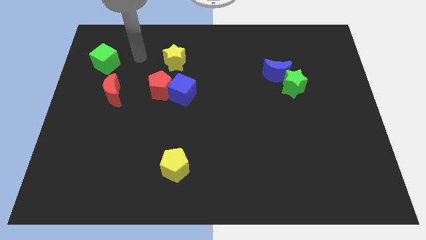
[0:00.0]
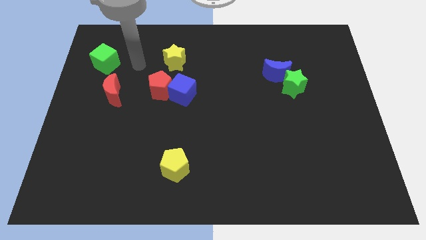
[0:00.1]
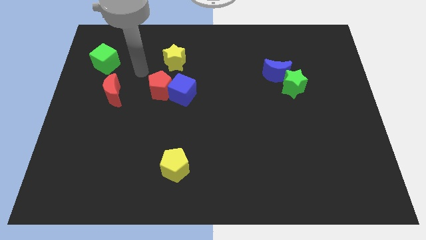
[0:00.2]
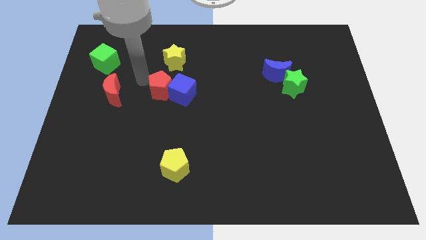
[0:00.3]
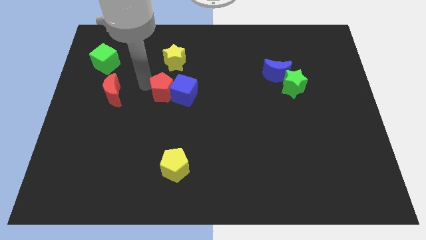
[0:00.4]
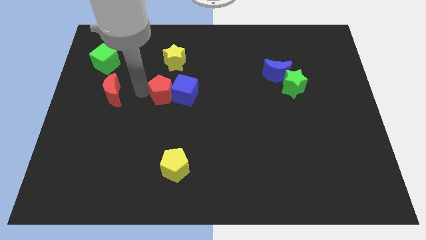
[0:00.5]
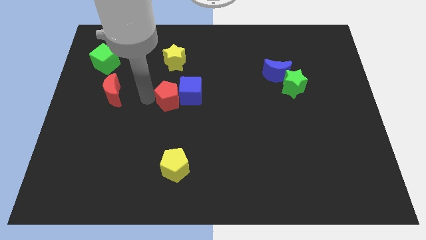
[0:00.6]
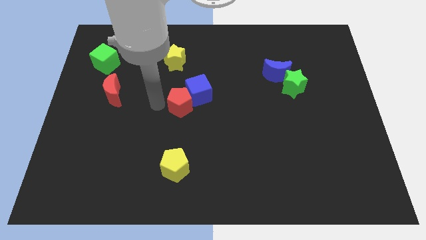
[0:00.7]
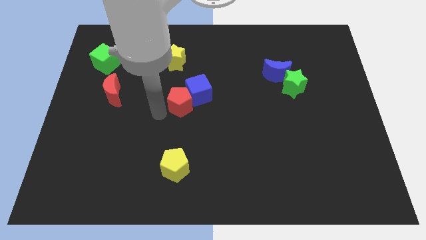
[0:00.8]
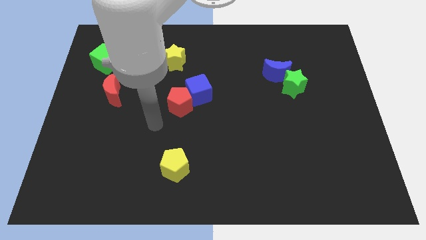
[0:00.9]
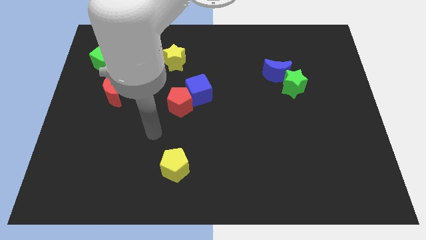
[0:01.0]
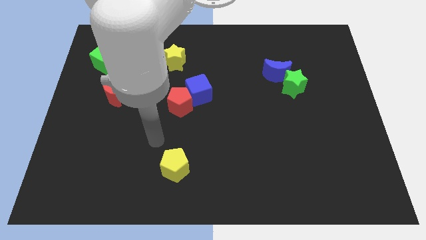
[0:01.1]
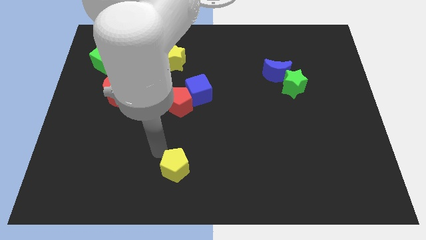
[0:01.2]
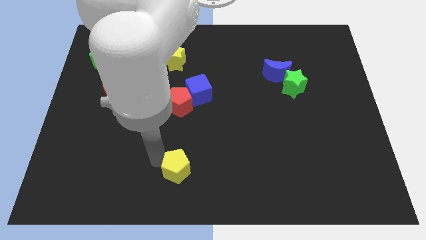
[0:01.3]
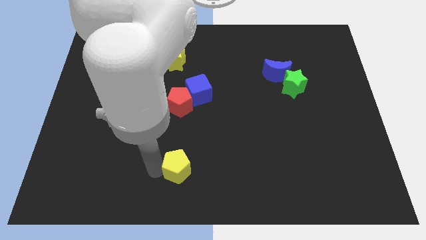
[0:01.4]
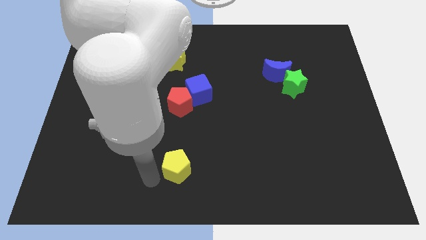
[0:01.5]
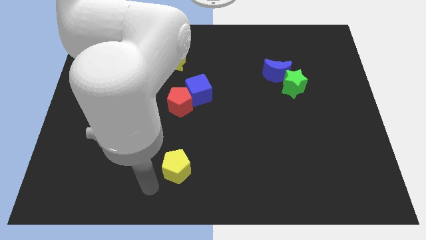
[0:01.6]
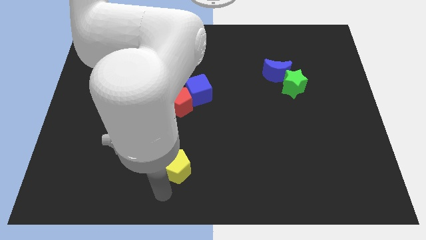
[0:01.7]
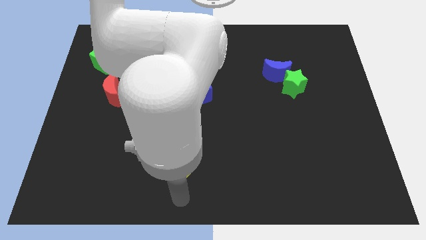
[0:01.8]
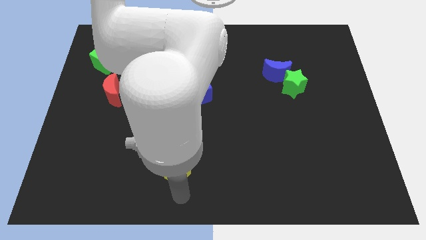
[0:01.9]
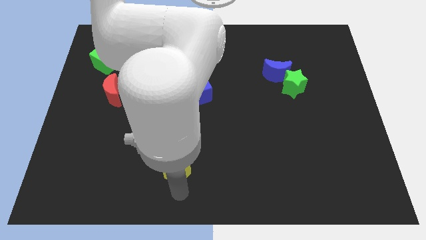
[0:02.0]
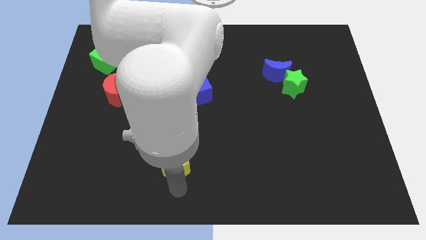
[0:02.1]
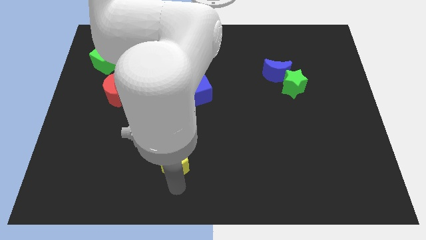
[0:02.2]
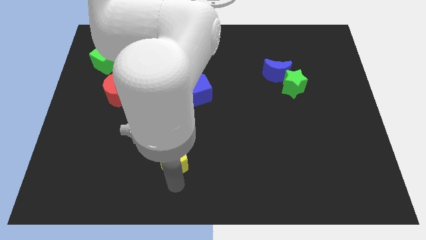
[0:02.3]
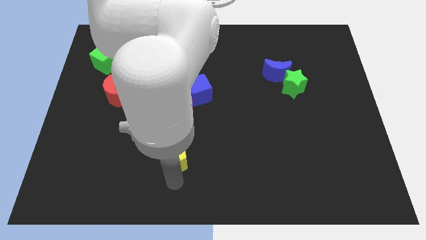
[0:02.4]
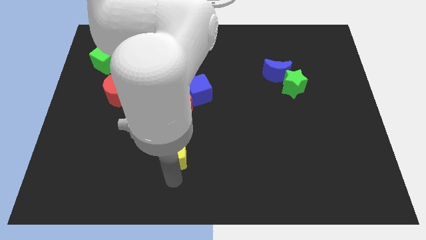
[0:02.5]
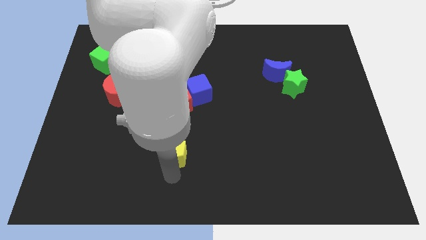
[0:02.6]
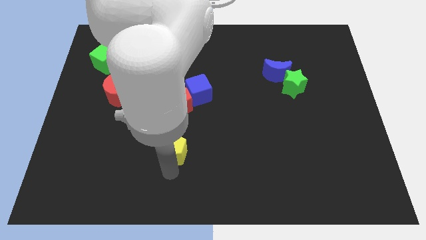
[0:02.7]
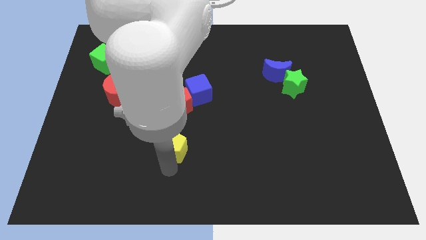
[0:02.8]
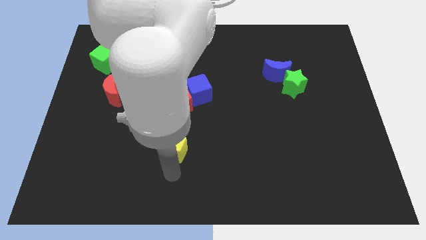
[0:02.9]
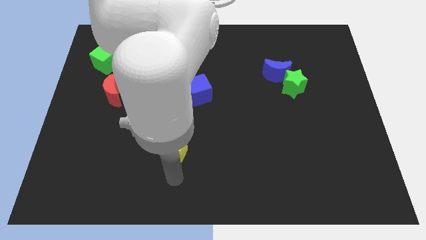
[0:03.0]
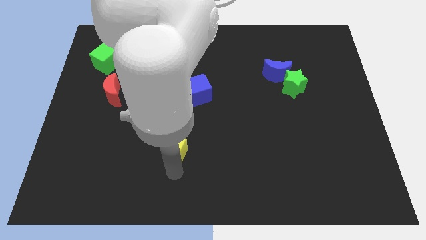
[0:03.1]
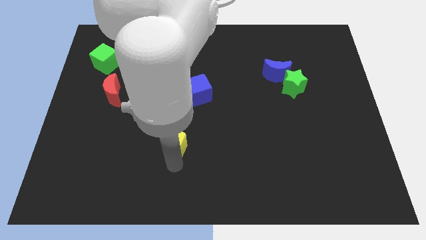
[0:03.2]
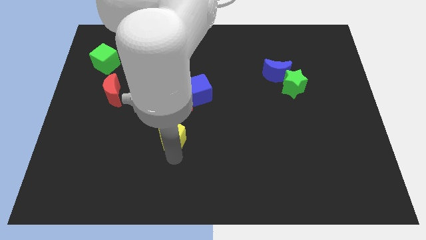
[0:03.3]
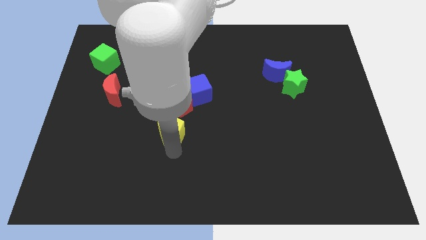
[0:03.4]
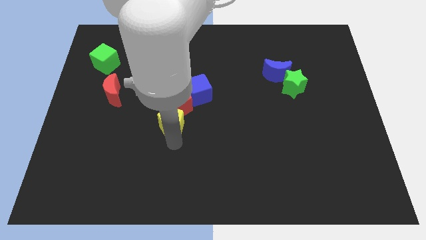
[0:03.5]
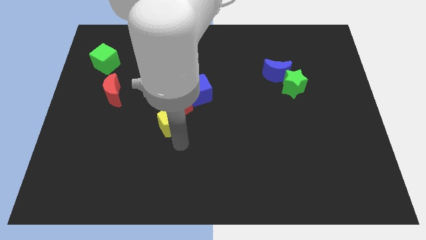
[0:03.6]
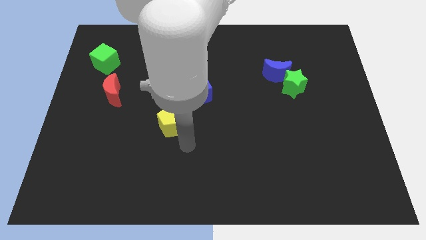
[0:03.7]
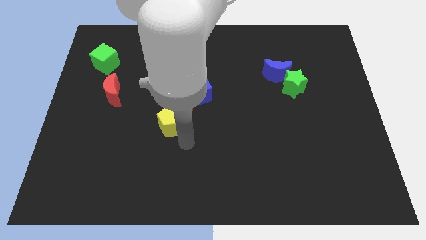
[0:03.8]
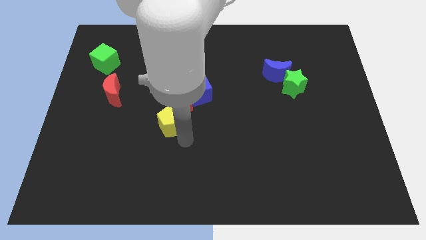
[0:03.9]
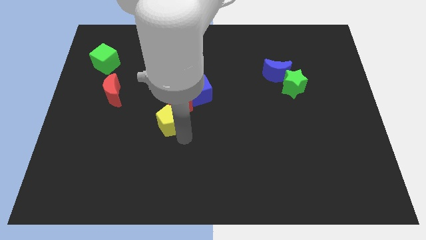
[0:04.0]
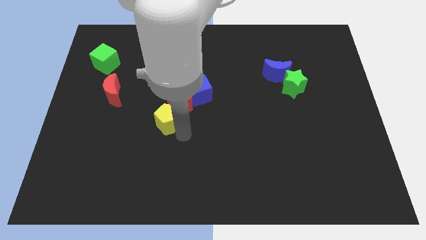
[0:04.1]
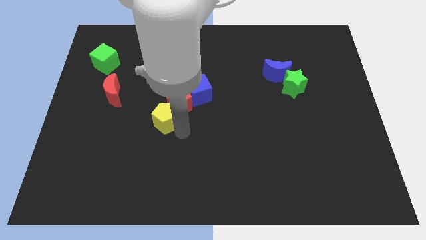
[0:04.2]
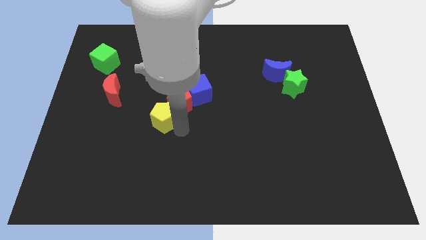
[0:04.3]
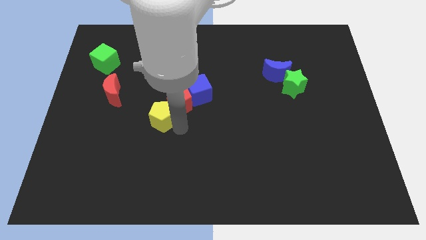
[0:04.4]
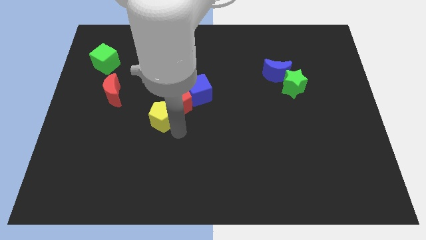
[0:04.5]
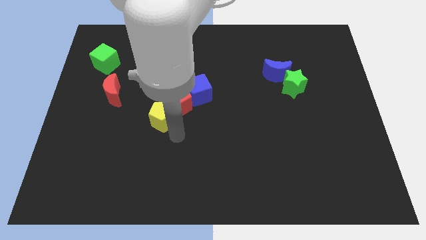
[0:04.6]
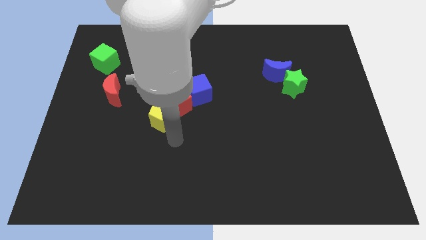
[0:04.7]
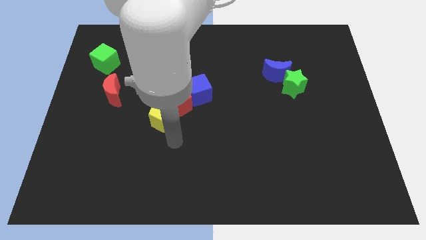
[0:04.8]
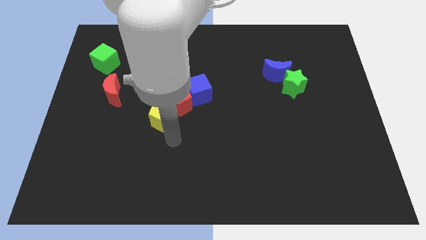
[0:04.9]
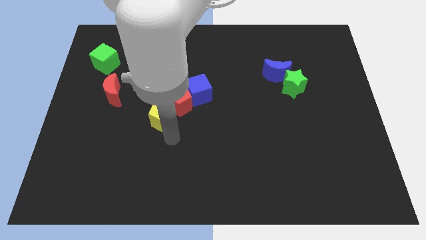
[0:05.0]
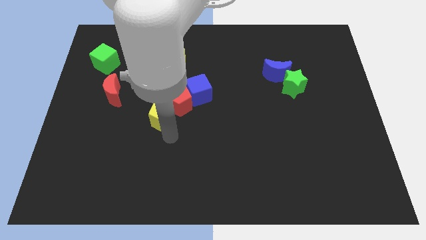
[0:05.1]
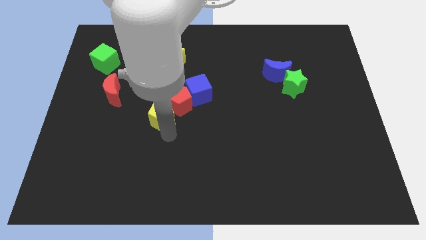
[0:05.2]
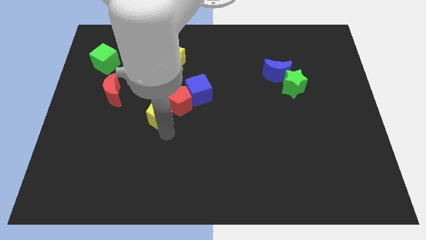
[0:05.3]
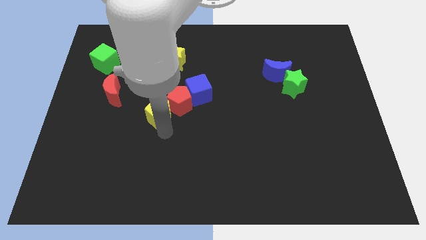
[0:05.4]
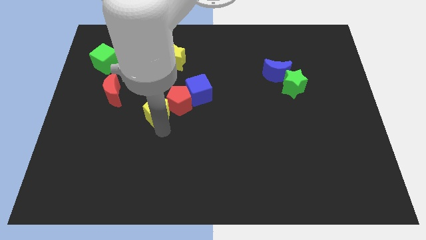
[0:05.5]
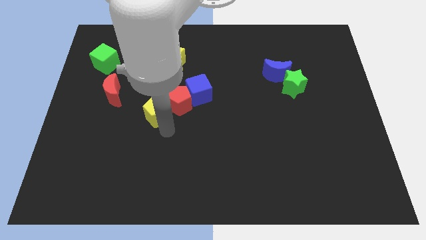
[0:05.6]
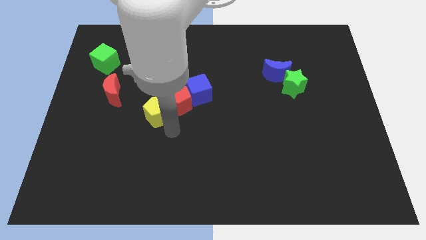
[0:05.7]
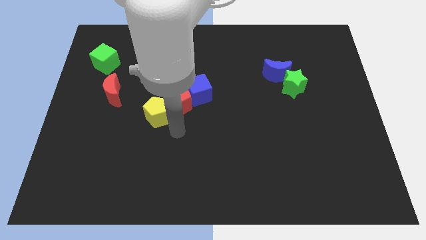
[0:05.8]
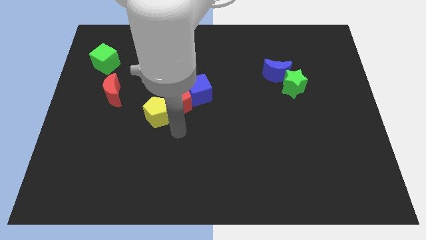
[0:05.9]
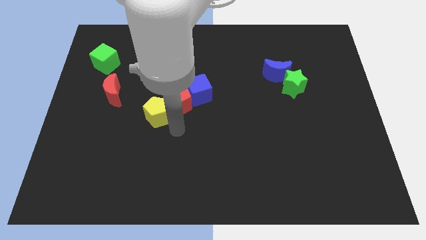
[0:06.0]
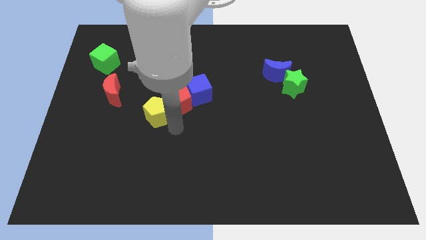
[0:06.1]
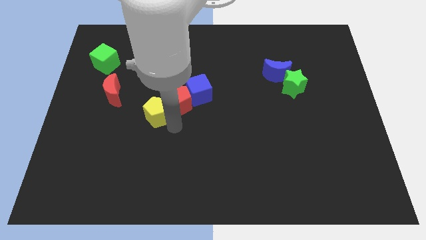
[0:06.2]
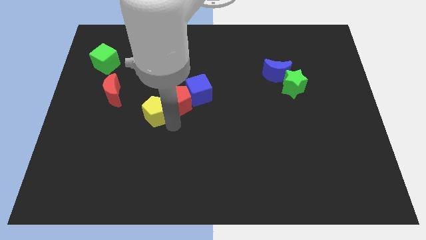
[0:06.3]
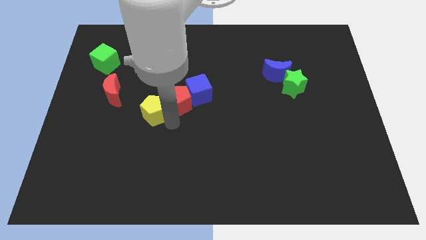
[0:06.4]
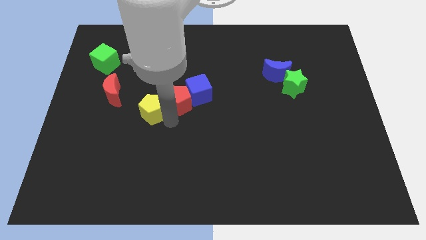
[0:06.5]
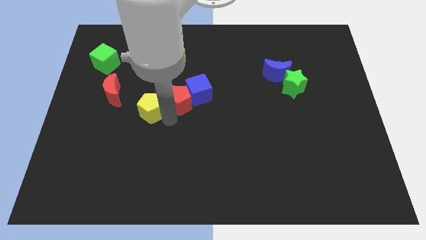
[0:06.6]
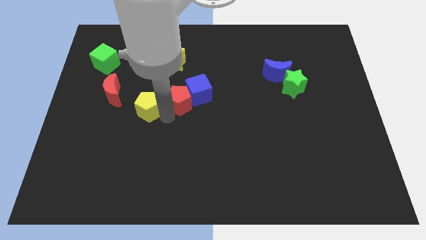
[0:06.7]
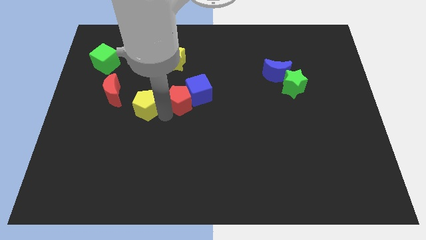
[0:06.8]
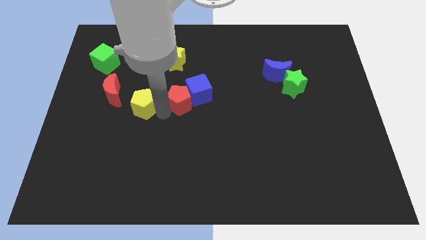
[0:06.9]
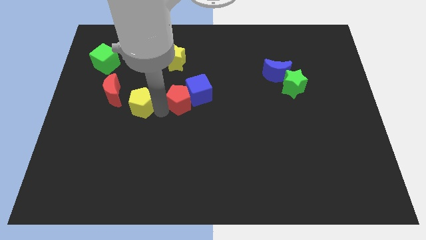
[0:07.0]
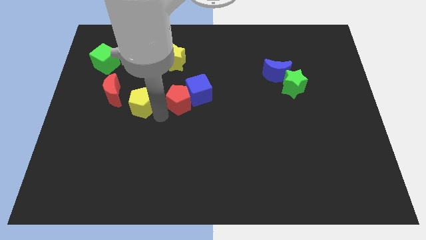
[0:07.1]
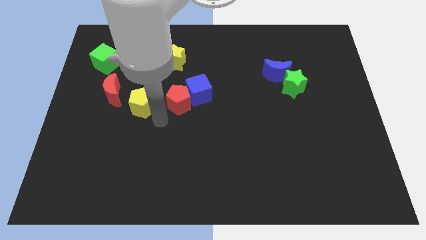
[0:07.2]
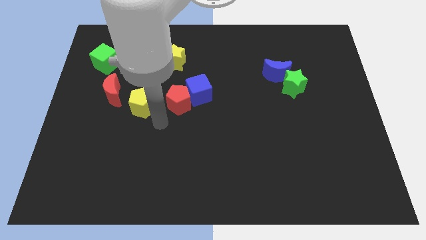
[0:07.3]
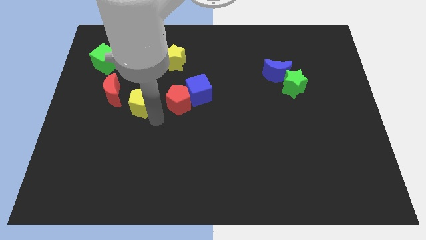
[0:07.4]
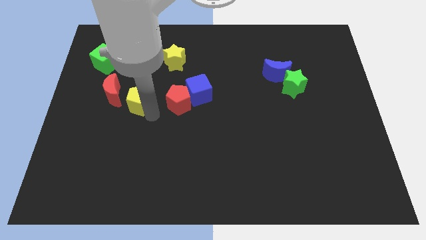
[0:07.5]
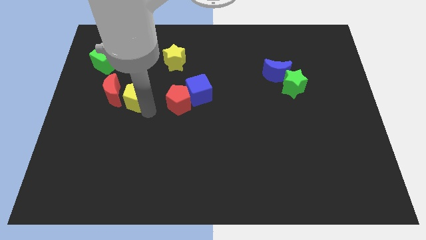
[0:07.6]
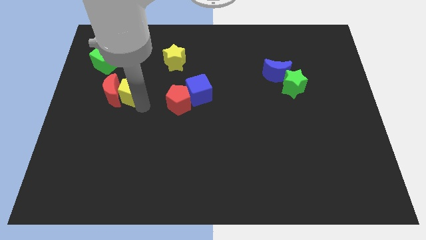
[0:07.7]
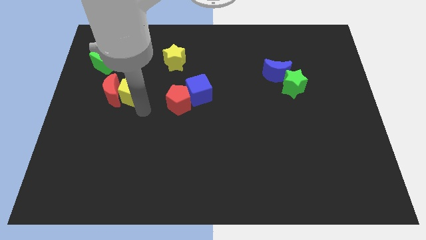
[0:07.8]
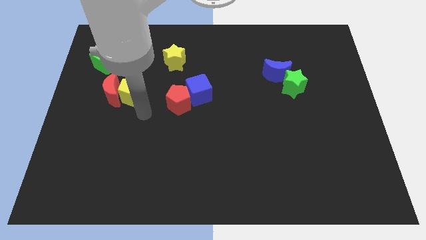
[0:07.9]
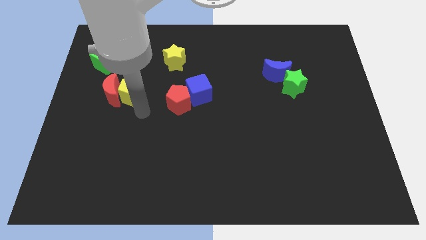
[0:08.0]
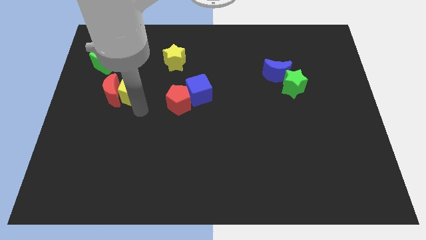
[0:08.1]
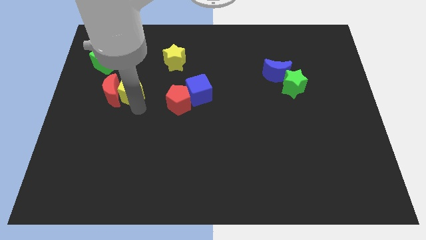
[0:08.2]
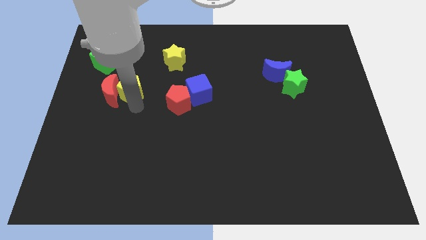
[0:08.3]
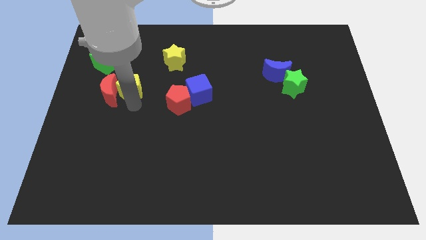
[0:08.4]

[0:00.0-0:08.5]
slide the yellow pentagon diagonally down and to the right of the green cube
